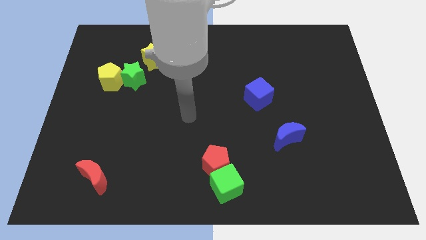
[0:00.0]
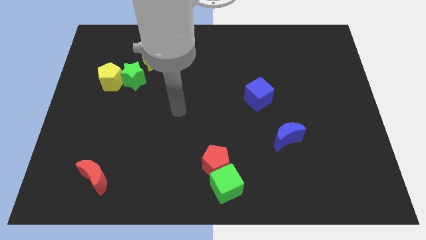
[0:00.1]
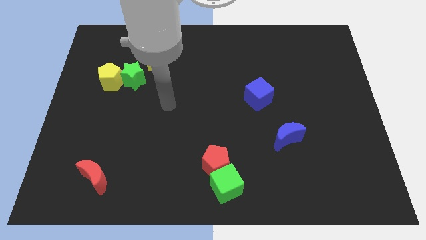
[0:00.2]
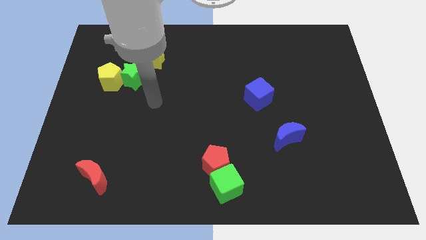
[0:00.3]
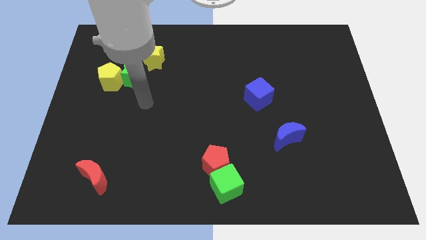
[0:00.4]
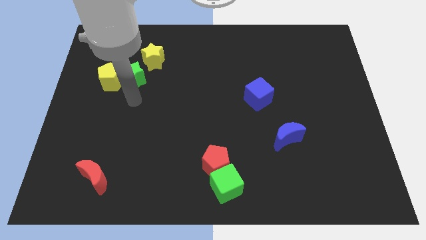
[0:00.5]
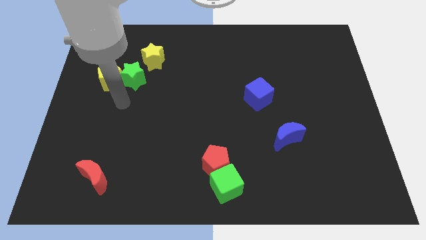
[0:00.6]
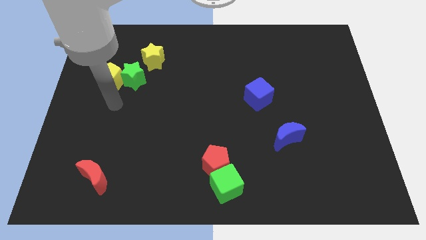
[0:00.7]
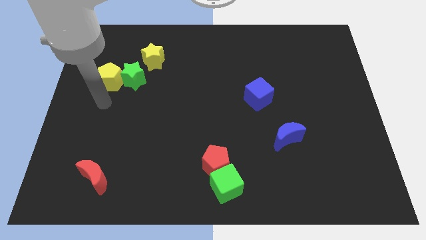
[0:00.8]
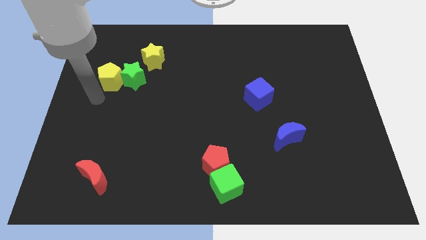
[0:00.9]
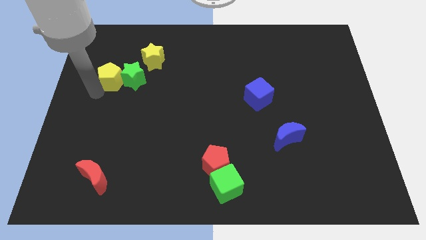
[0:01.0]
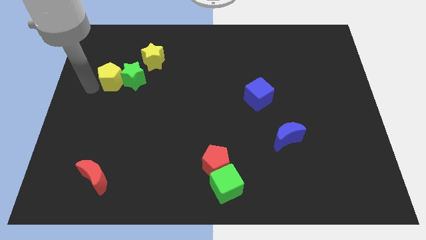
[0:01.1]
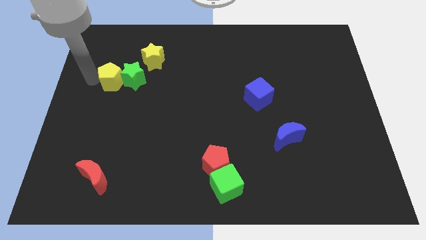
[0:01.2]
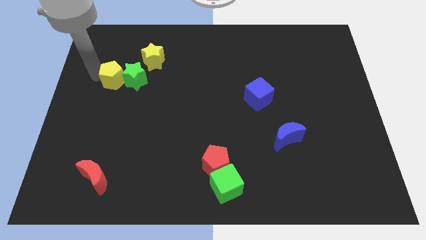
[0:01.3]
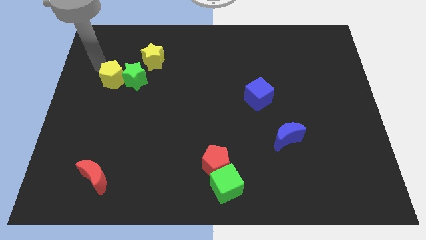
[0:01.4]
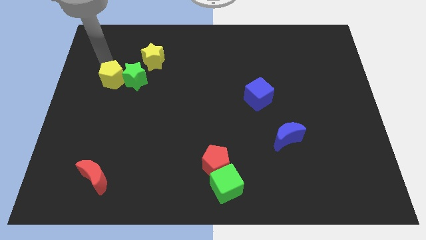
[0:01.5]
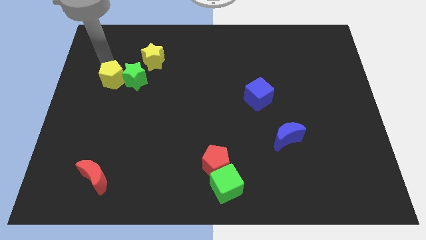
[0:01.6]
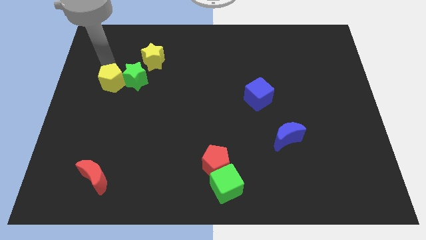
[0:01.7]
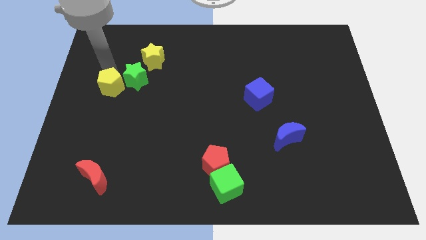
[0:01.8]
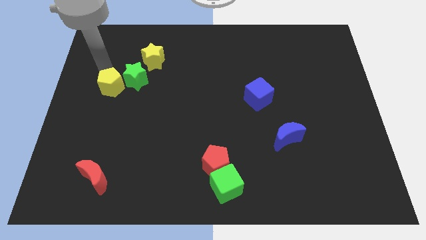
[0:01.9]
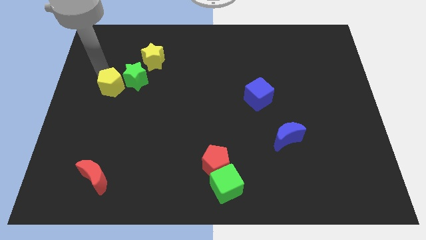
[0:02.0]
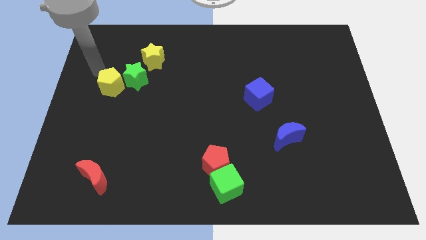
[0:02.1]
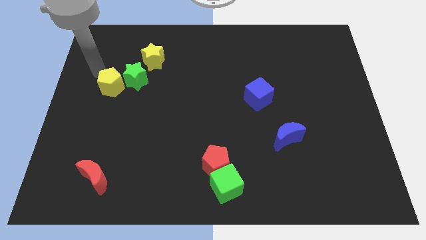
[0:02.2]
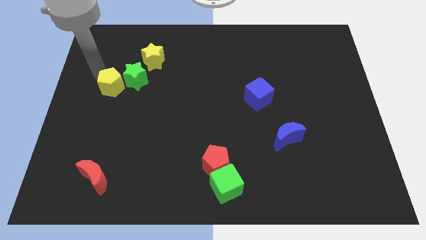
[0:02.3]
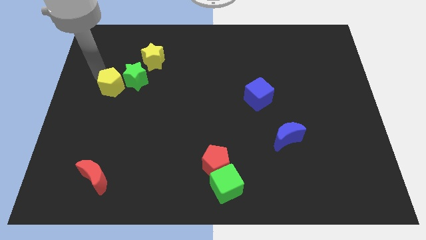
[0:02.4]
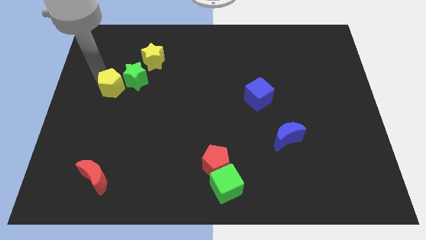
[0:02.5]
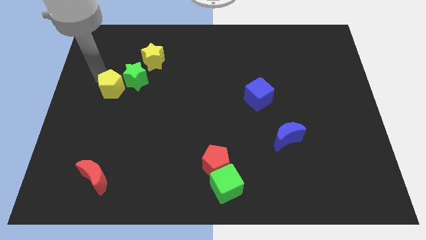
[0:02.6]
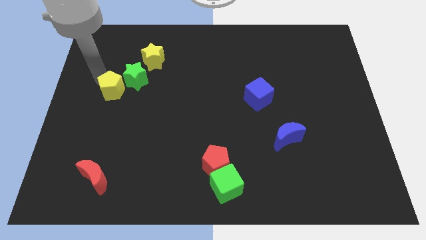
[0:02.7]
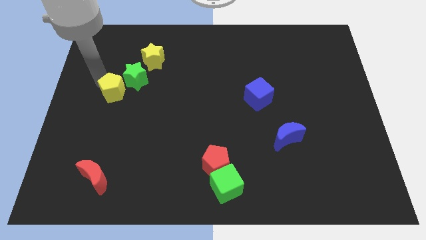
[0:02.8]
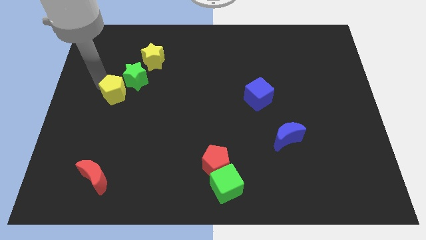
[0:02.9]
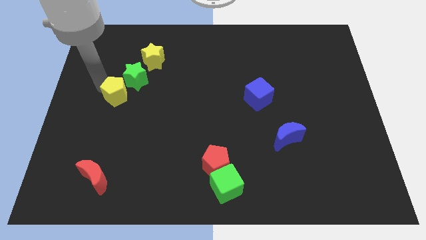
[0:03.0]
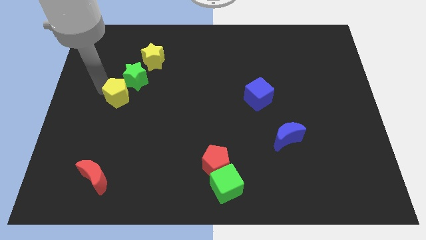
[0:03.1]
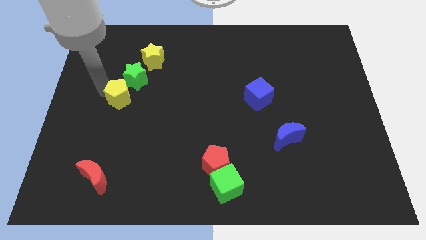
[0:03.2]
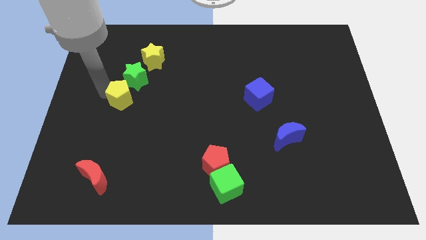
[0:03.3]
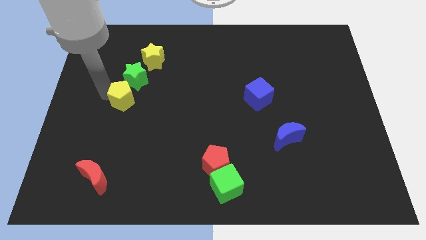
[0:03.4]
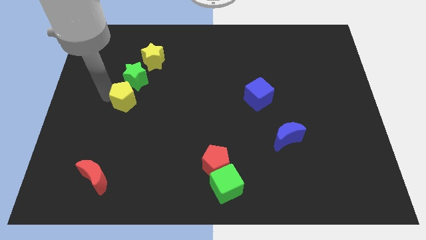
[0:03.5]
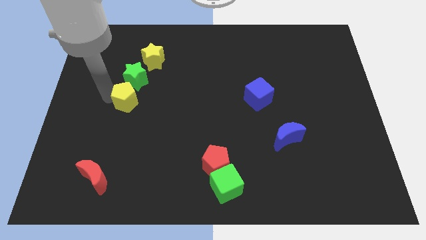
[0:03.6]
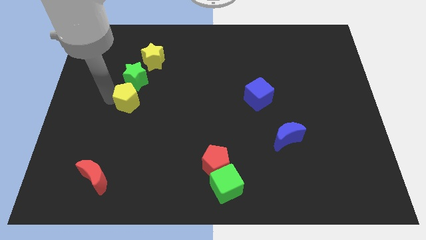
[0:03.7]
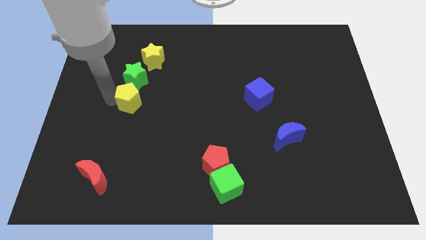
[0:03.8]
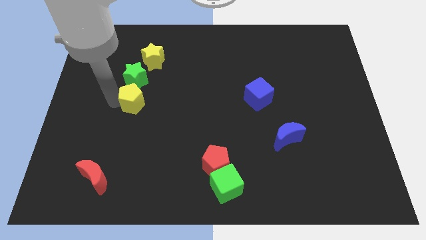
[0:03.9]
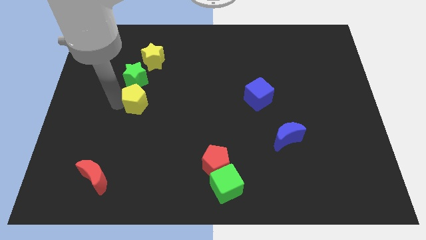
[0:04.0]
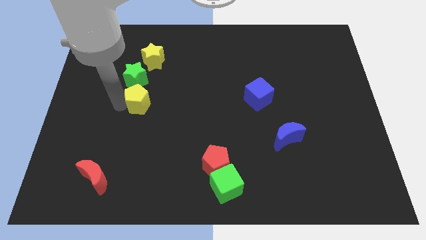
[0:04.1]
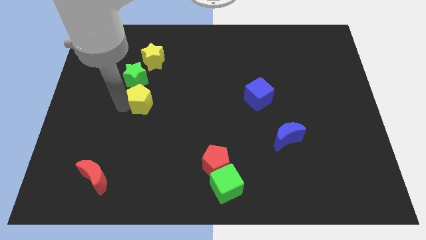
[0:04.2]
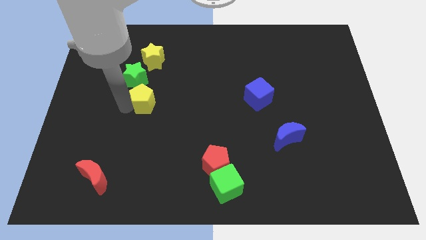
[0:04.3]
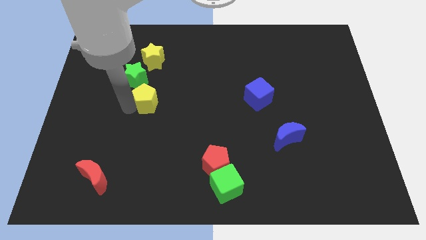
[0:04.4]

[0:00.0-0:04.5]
slightly push the yellow pentagon right

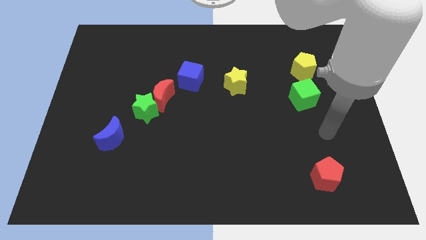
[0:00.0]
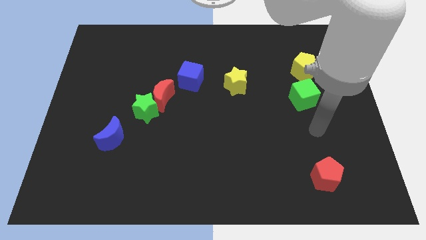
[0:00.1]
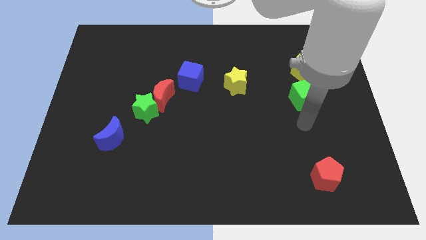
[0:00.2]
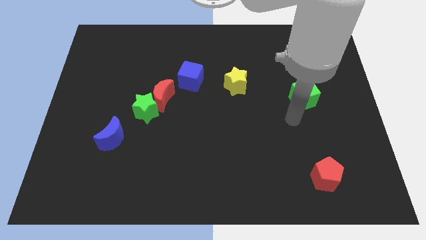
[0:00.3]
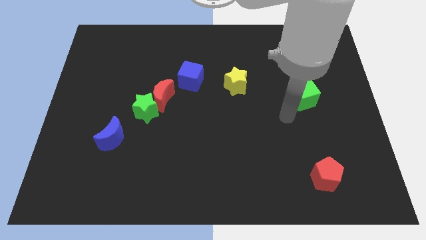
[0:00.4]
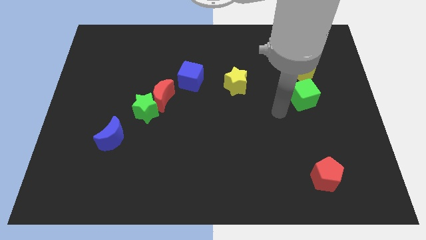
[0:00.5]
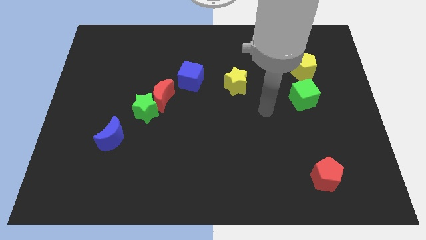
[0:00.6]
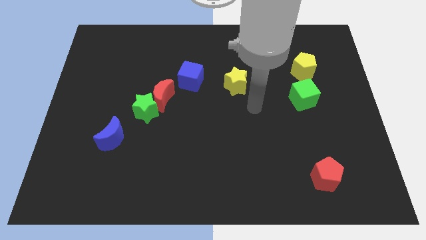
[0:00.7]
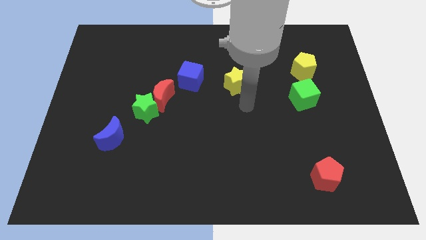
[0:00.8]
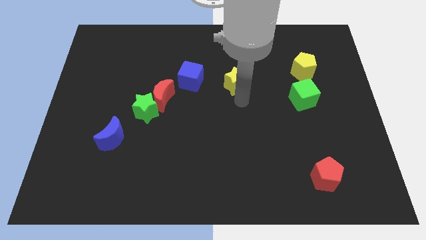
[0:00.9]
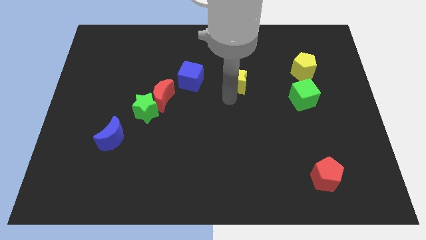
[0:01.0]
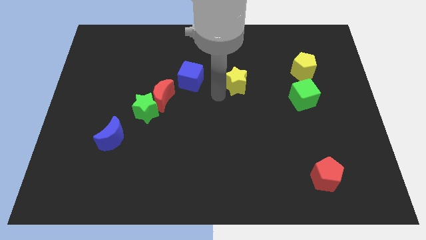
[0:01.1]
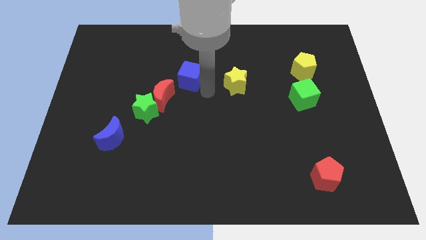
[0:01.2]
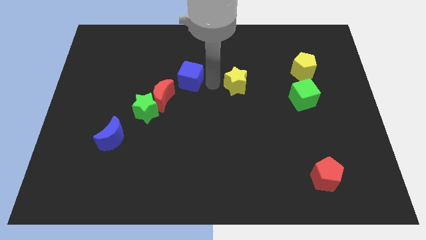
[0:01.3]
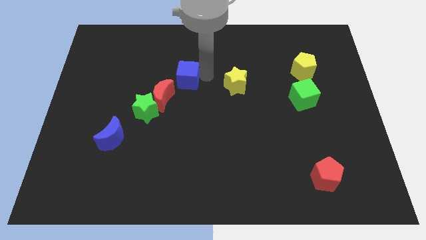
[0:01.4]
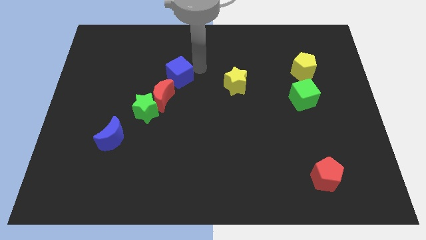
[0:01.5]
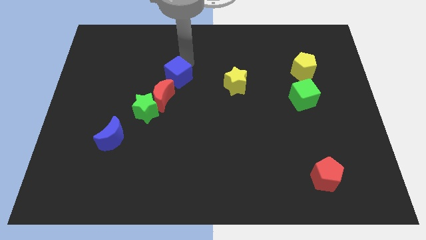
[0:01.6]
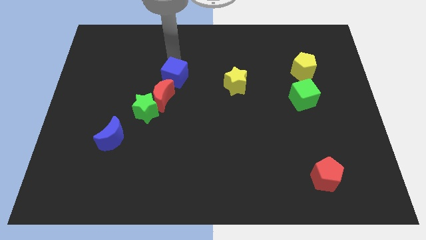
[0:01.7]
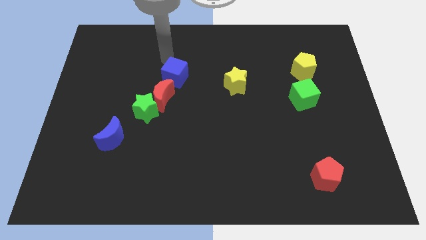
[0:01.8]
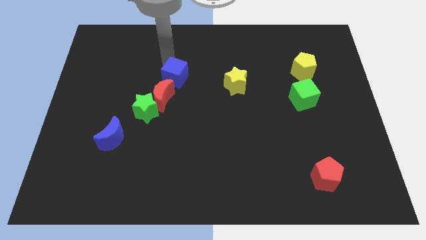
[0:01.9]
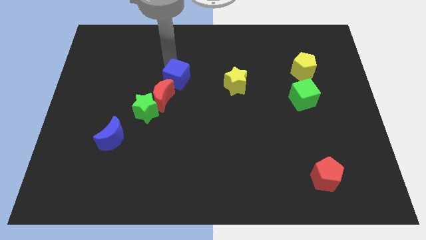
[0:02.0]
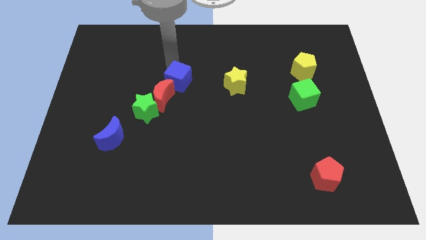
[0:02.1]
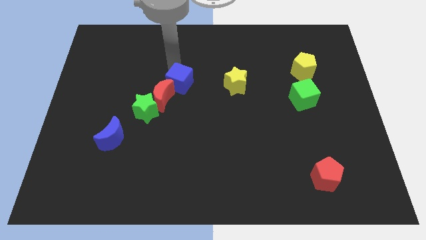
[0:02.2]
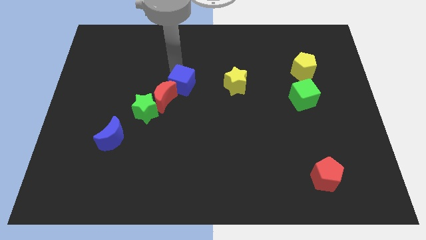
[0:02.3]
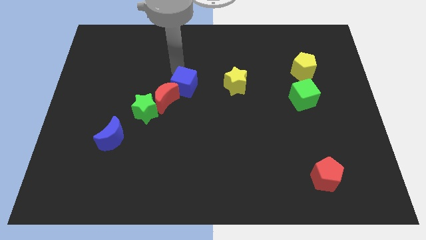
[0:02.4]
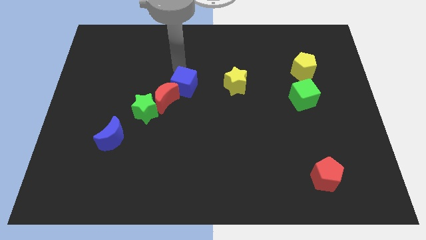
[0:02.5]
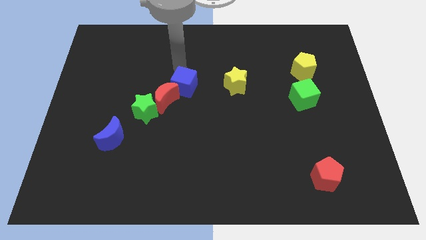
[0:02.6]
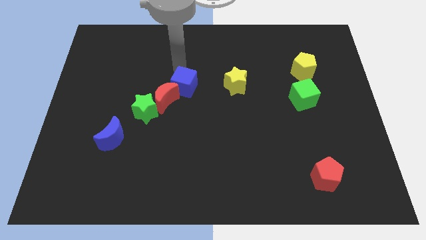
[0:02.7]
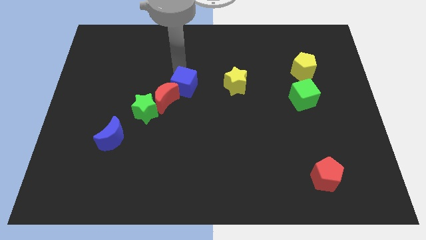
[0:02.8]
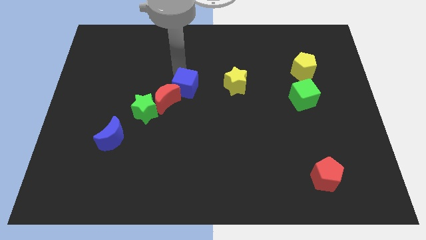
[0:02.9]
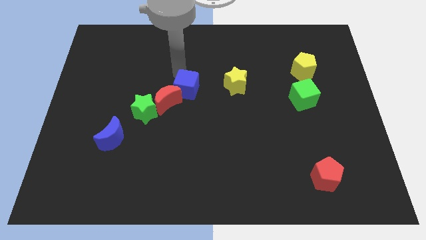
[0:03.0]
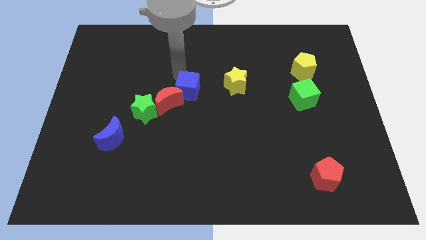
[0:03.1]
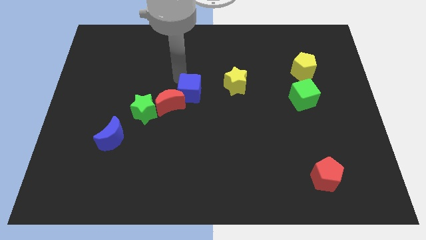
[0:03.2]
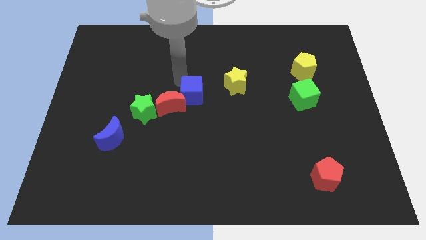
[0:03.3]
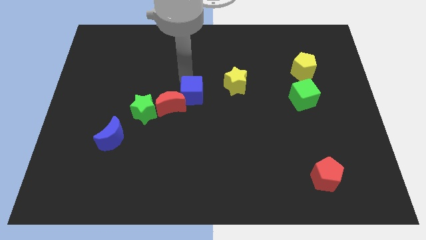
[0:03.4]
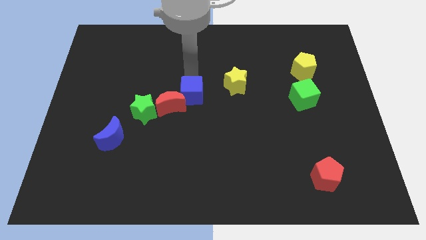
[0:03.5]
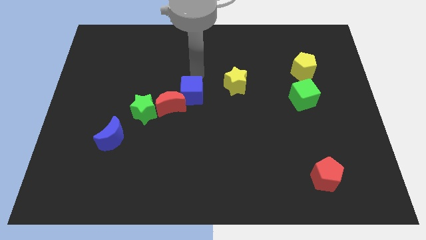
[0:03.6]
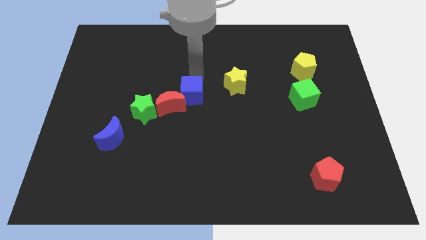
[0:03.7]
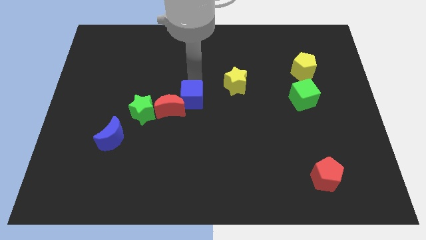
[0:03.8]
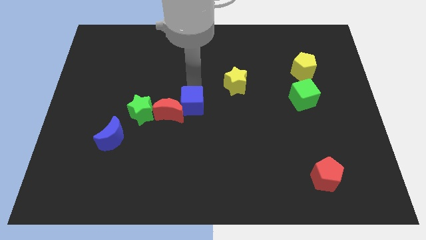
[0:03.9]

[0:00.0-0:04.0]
slide the blue cube down a little
